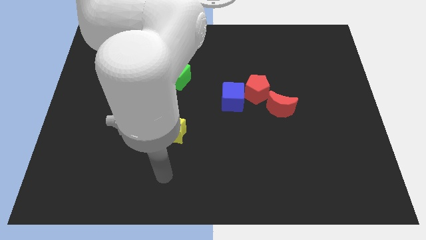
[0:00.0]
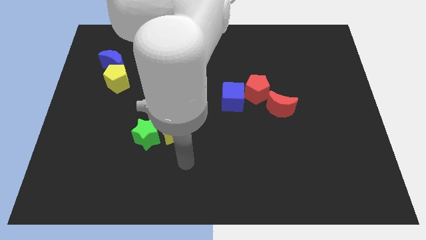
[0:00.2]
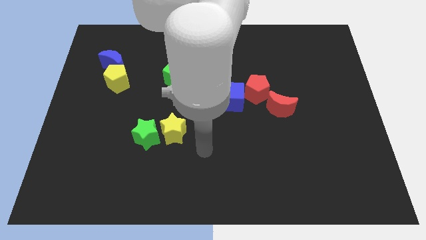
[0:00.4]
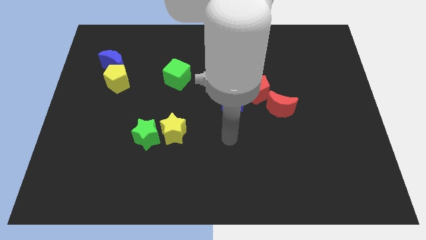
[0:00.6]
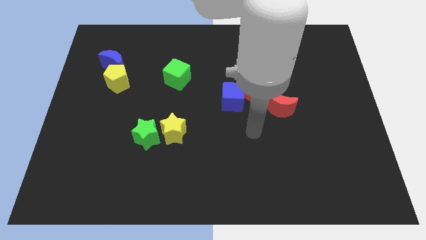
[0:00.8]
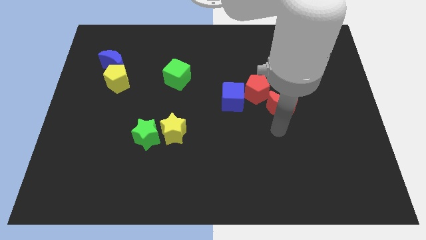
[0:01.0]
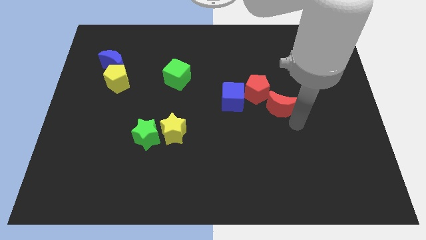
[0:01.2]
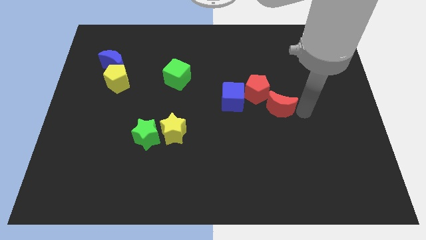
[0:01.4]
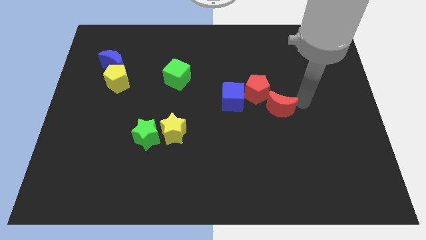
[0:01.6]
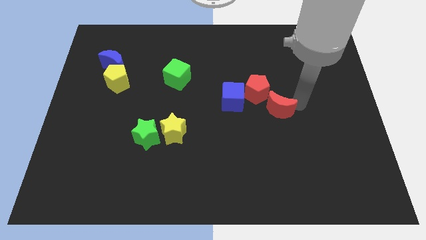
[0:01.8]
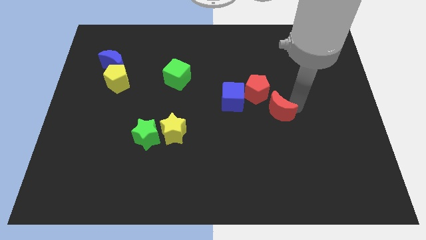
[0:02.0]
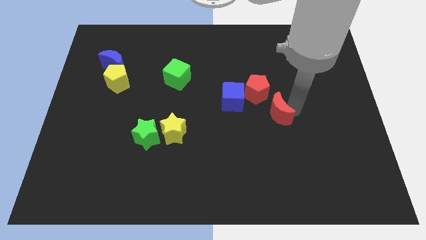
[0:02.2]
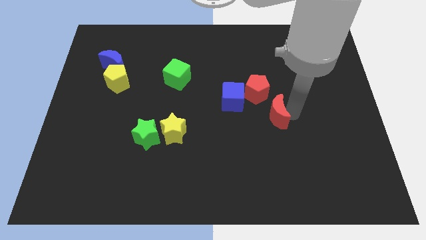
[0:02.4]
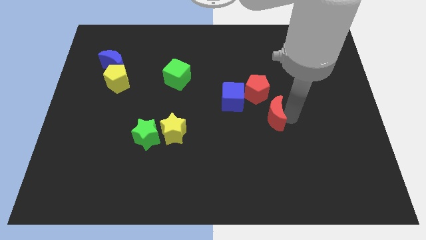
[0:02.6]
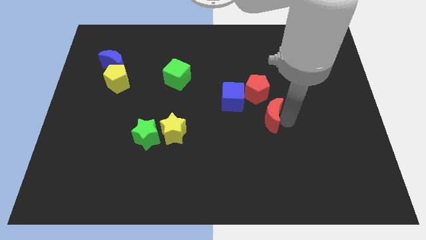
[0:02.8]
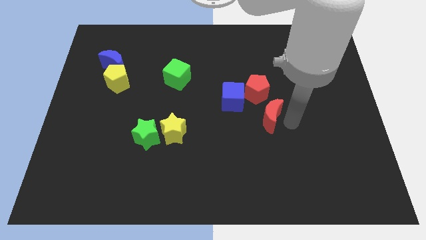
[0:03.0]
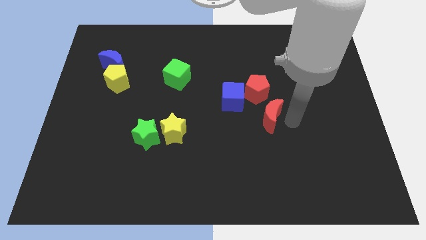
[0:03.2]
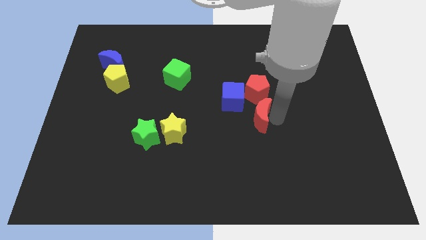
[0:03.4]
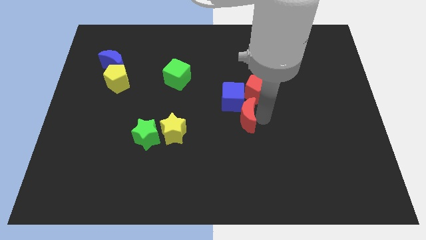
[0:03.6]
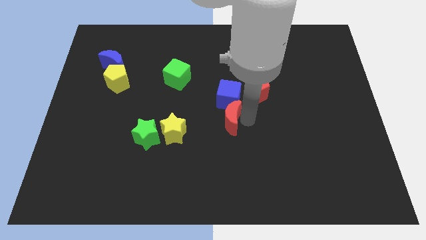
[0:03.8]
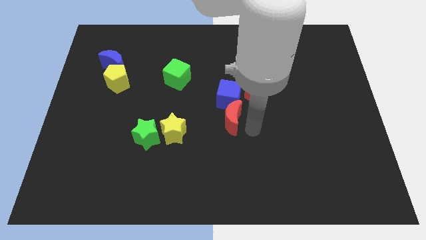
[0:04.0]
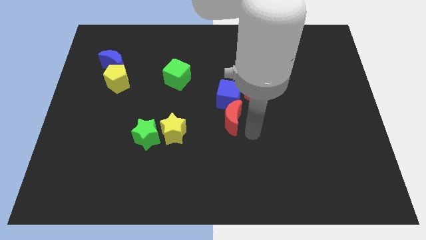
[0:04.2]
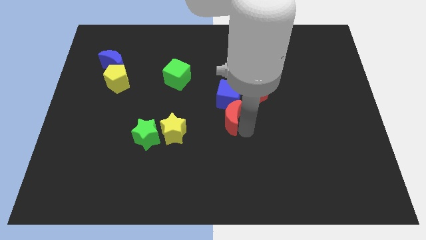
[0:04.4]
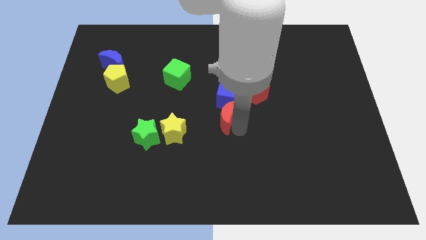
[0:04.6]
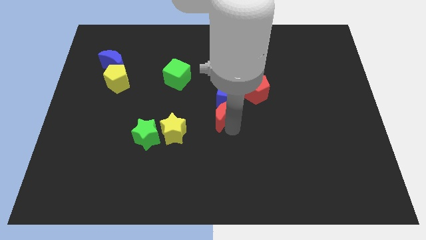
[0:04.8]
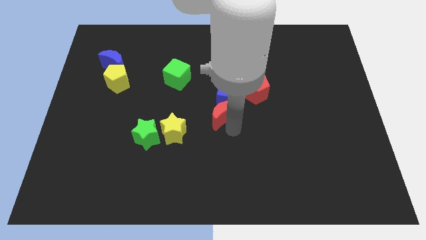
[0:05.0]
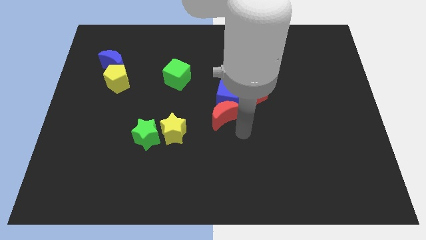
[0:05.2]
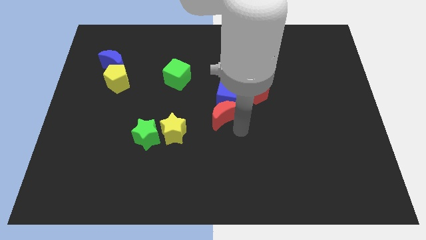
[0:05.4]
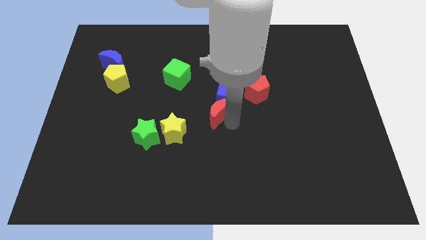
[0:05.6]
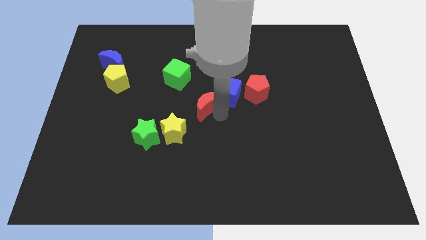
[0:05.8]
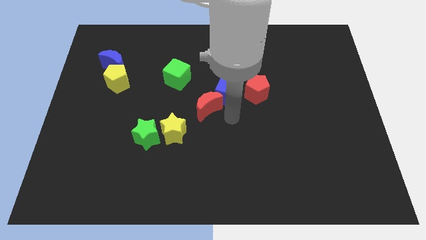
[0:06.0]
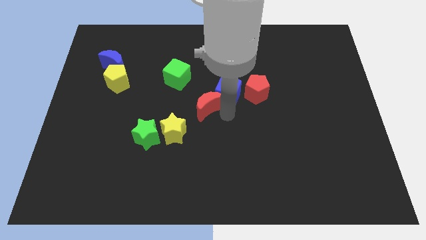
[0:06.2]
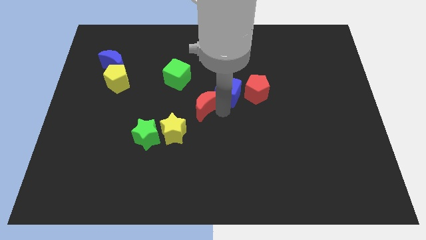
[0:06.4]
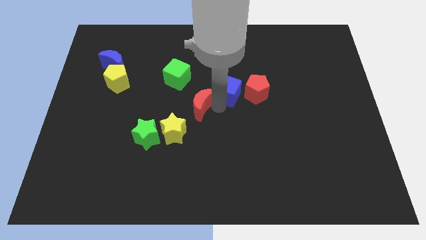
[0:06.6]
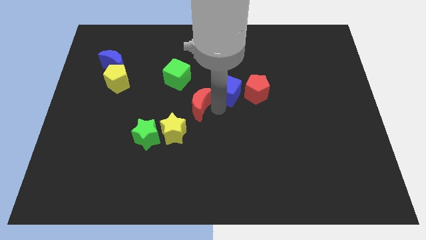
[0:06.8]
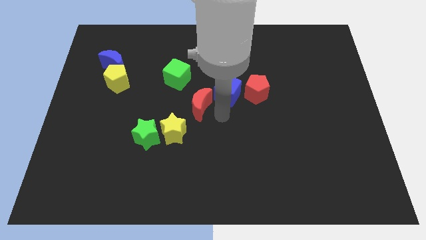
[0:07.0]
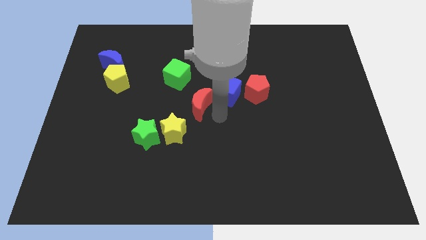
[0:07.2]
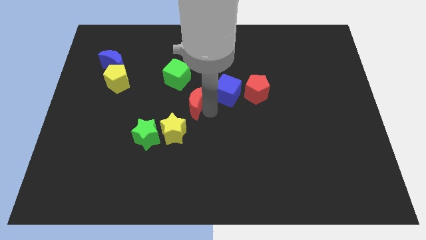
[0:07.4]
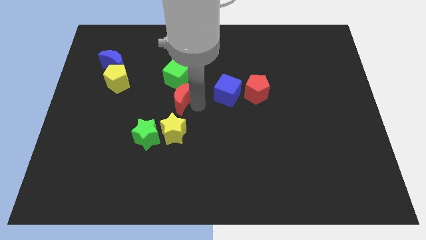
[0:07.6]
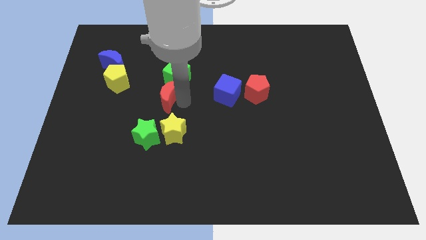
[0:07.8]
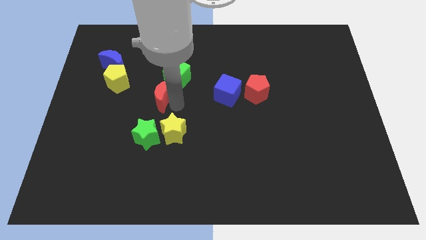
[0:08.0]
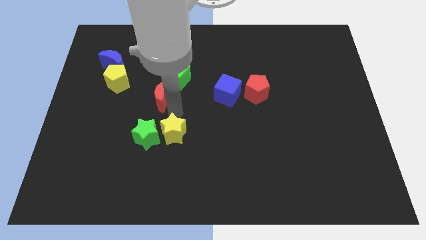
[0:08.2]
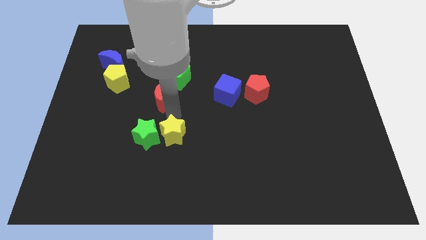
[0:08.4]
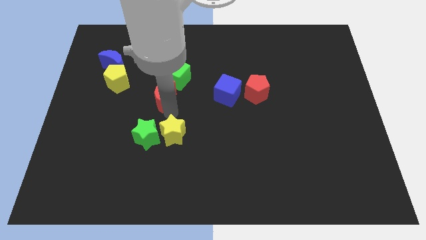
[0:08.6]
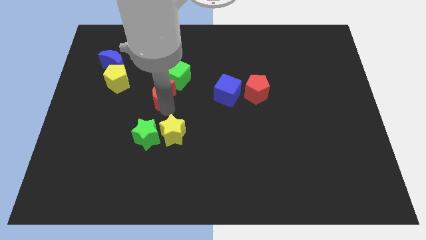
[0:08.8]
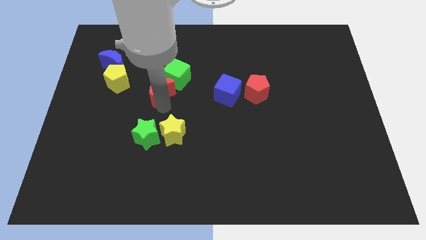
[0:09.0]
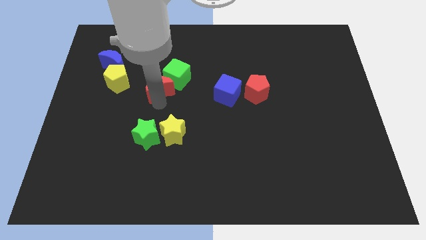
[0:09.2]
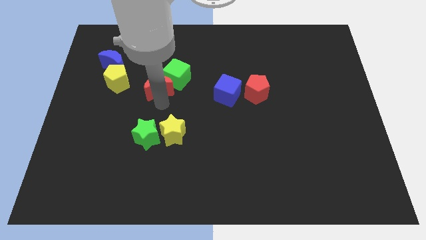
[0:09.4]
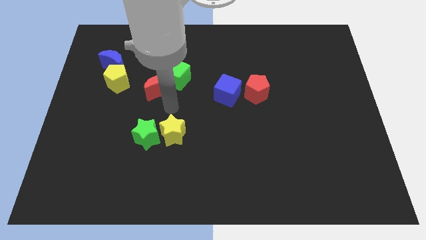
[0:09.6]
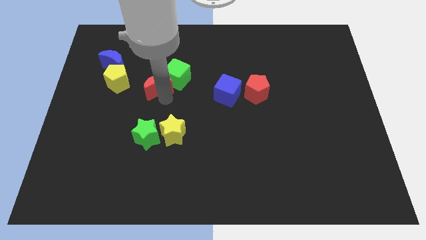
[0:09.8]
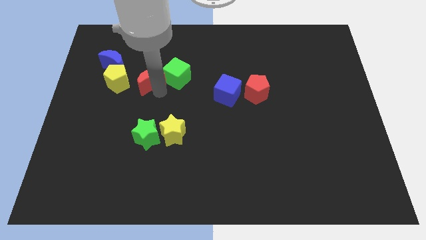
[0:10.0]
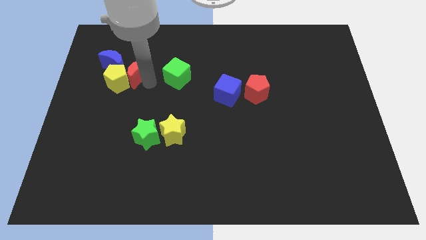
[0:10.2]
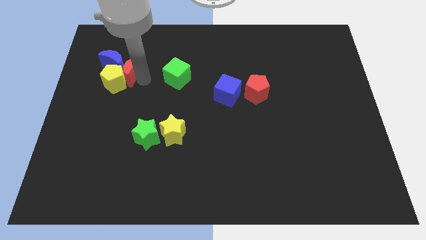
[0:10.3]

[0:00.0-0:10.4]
push the red moon towards the blue moon

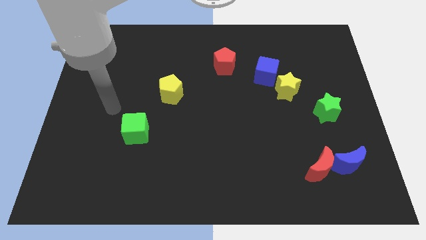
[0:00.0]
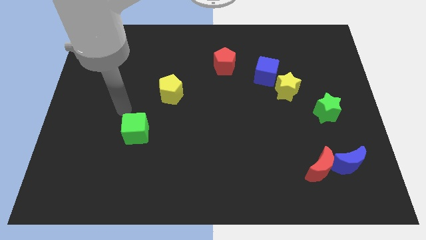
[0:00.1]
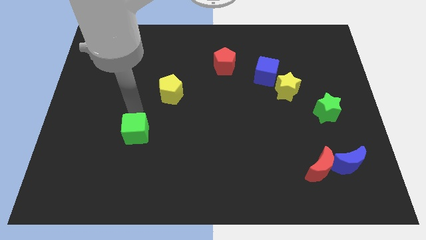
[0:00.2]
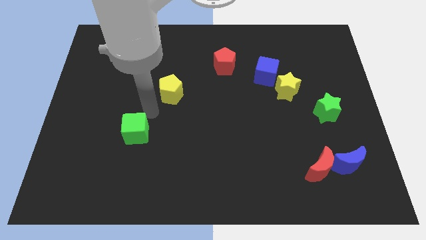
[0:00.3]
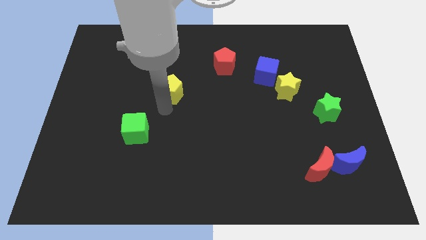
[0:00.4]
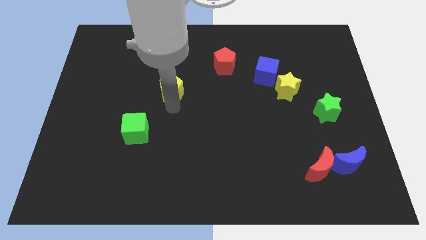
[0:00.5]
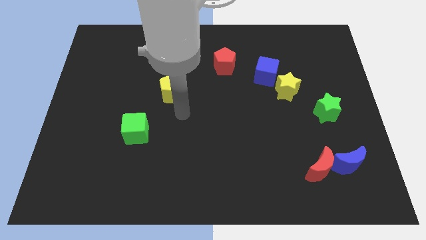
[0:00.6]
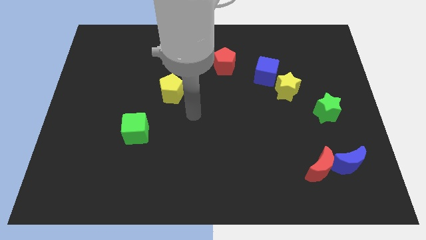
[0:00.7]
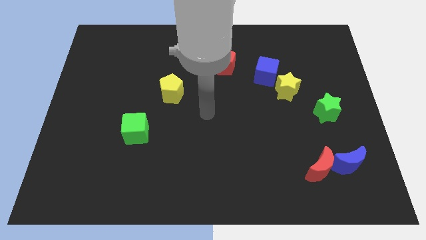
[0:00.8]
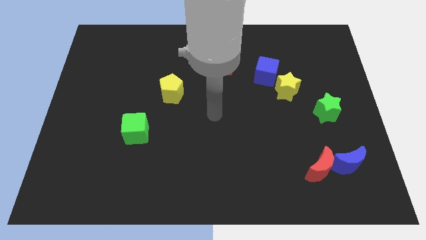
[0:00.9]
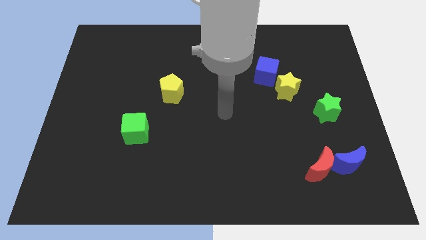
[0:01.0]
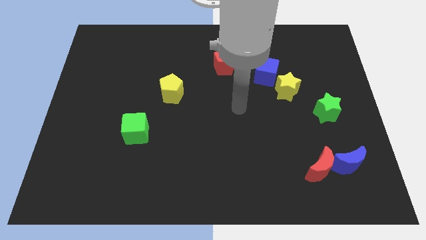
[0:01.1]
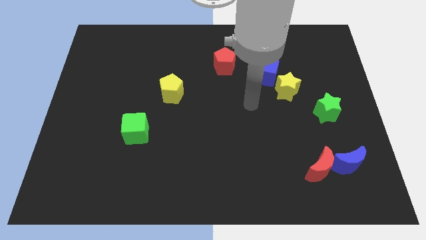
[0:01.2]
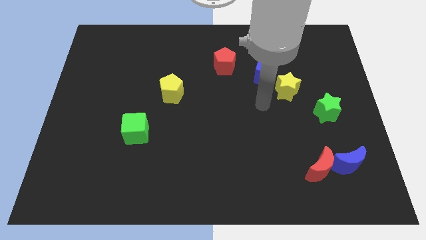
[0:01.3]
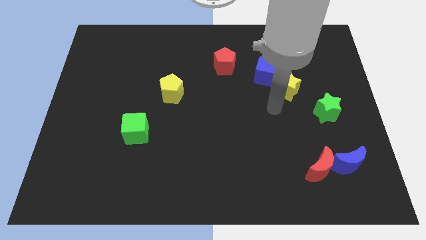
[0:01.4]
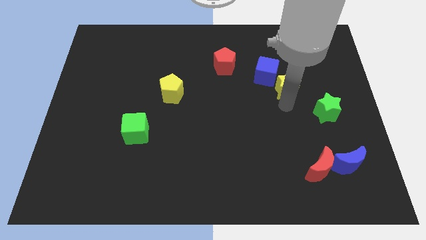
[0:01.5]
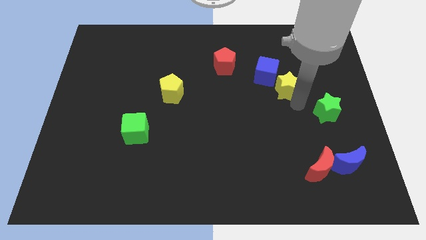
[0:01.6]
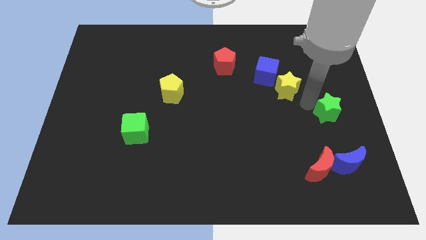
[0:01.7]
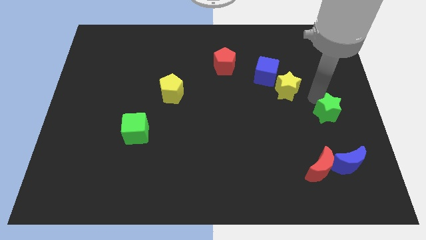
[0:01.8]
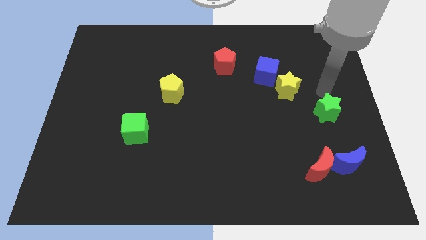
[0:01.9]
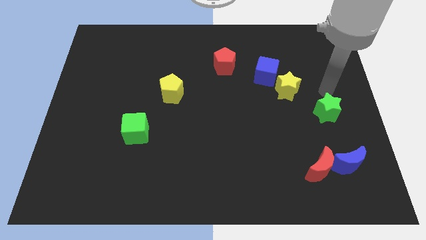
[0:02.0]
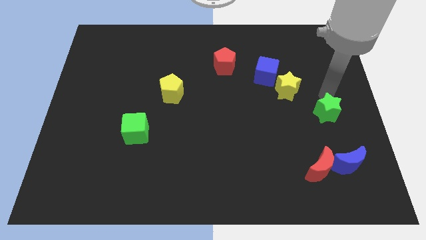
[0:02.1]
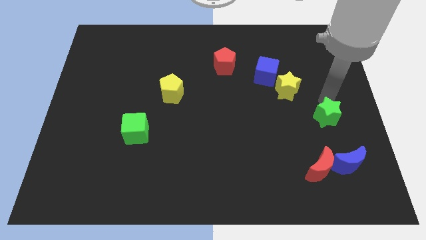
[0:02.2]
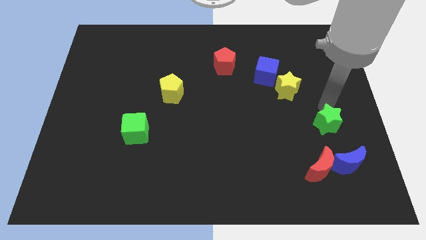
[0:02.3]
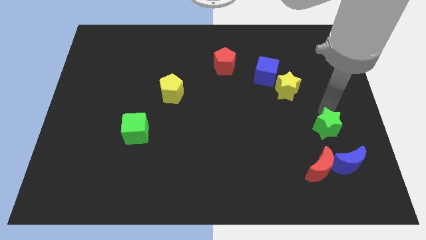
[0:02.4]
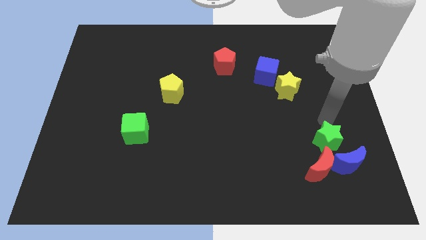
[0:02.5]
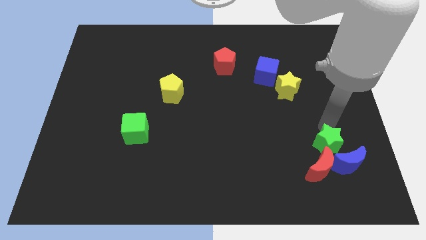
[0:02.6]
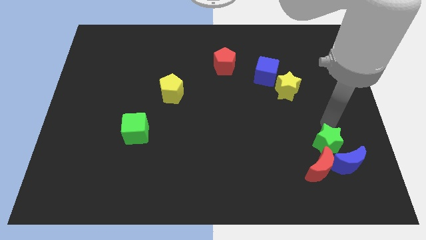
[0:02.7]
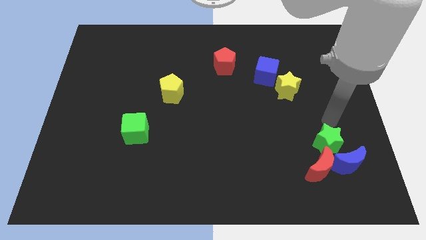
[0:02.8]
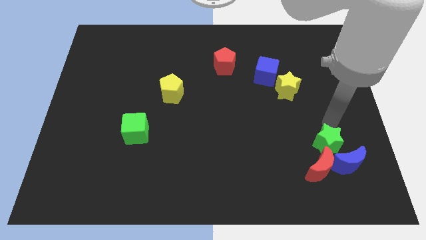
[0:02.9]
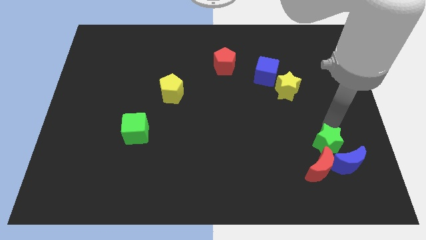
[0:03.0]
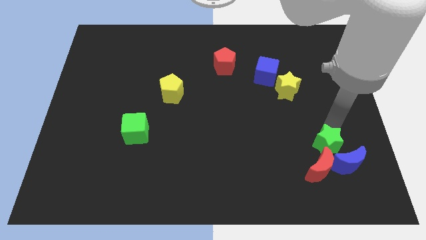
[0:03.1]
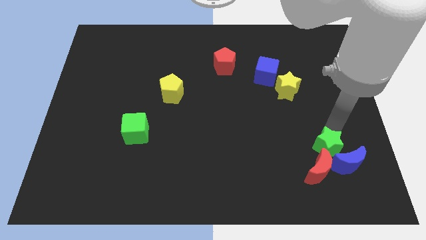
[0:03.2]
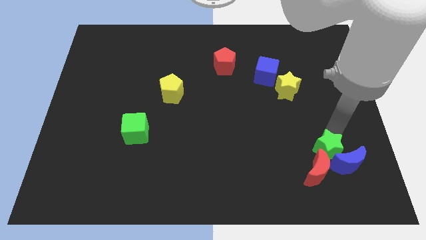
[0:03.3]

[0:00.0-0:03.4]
slide the green star next to the red moon
